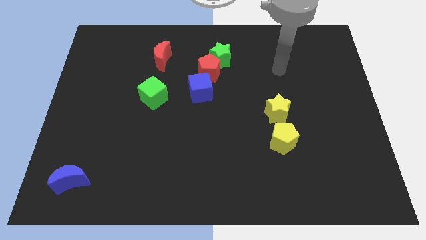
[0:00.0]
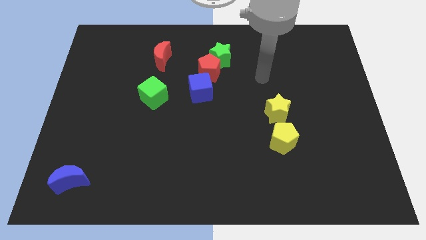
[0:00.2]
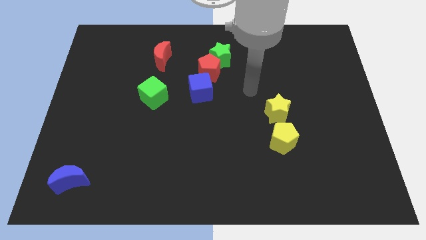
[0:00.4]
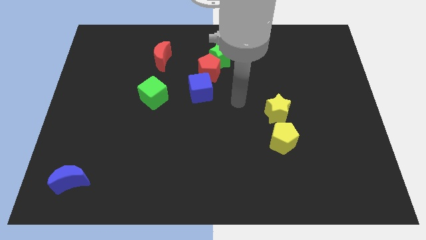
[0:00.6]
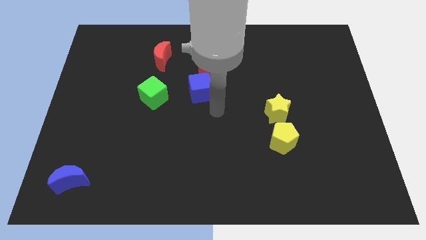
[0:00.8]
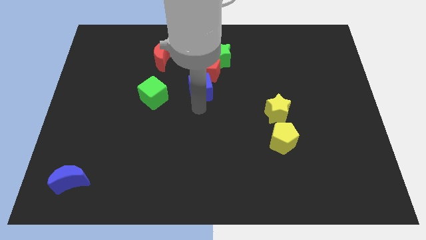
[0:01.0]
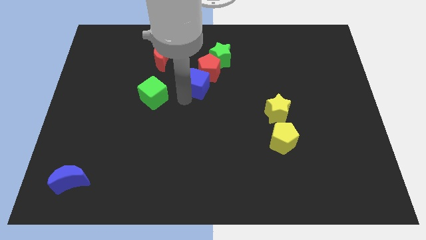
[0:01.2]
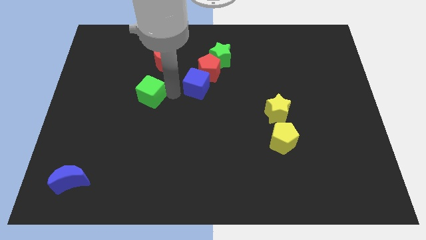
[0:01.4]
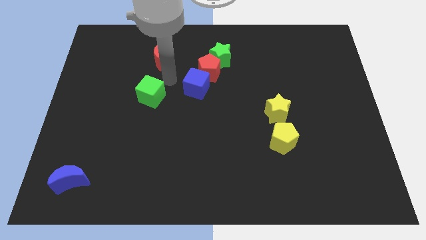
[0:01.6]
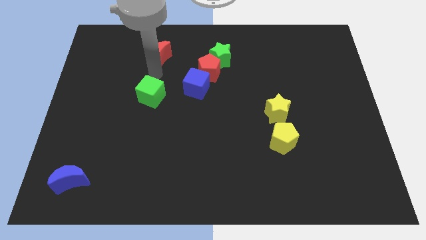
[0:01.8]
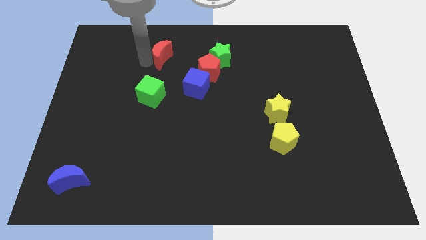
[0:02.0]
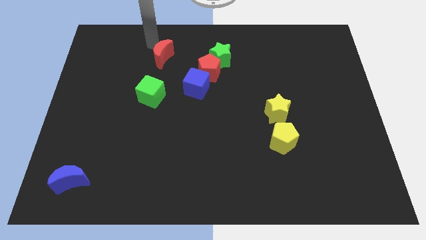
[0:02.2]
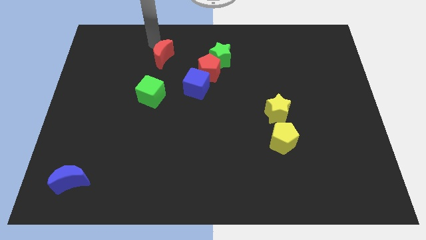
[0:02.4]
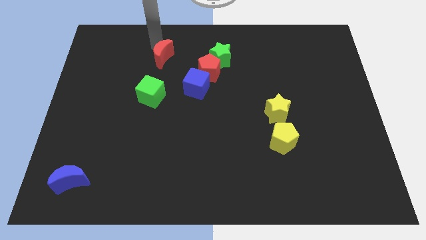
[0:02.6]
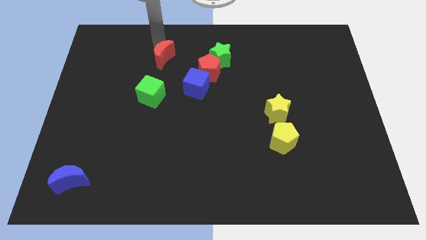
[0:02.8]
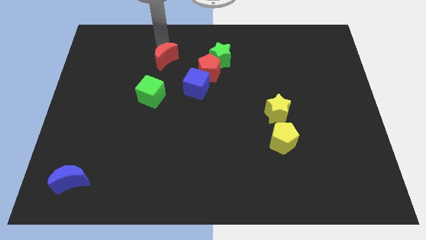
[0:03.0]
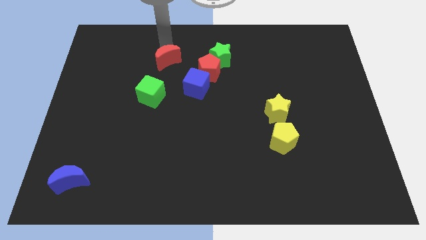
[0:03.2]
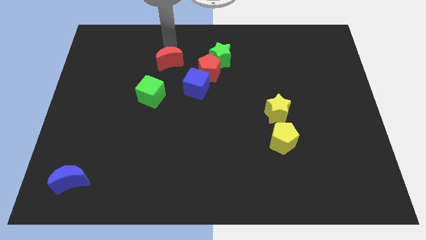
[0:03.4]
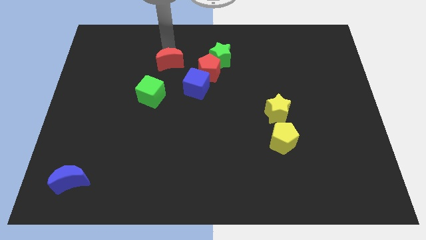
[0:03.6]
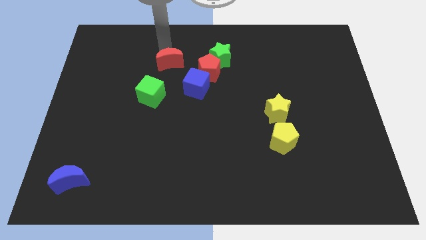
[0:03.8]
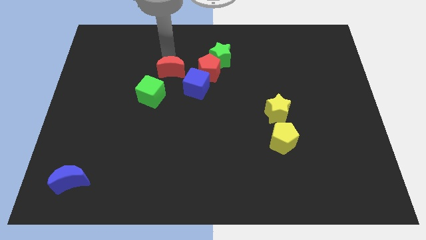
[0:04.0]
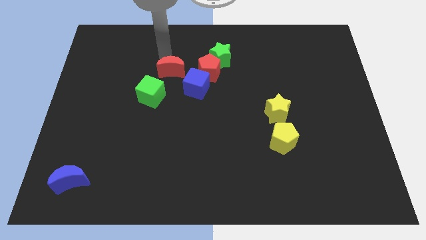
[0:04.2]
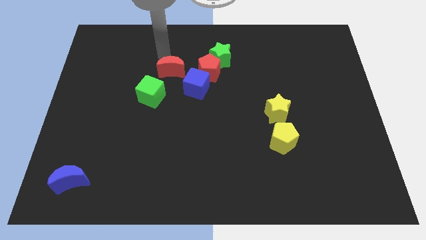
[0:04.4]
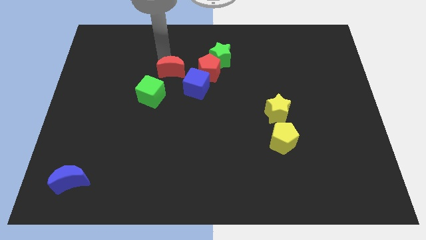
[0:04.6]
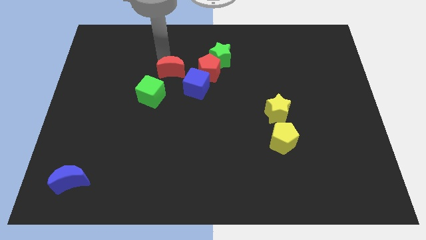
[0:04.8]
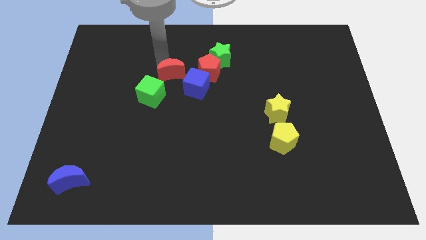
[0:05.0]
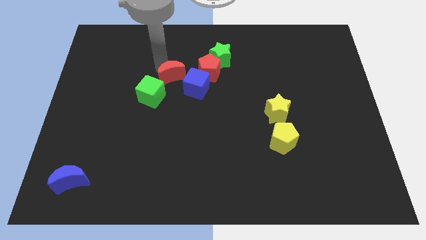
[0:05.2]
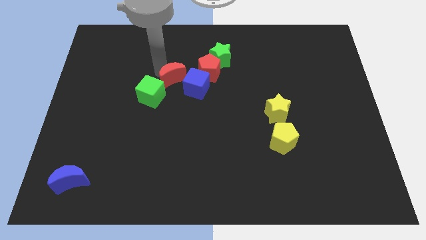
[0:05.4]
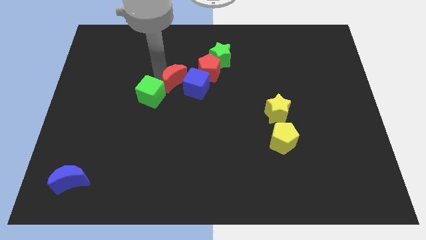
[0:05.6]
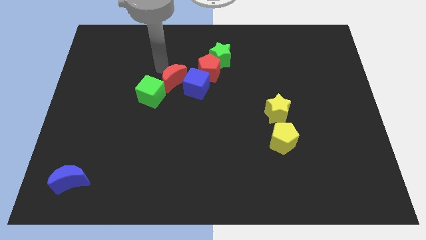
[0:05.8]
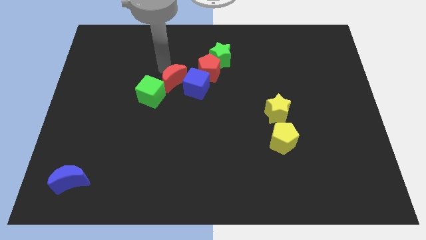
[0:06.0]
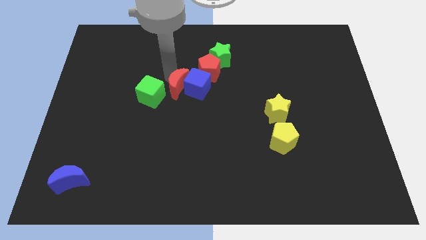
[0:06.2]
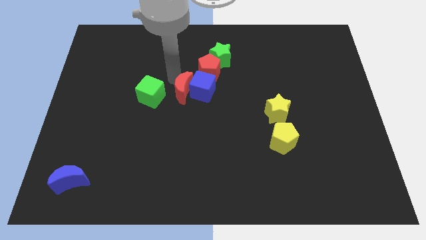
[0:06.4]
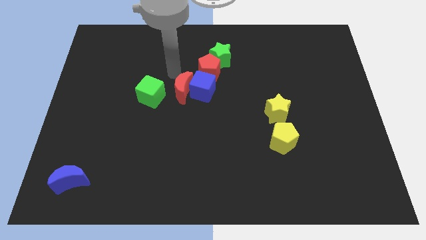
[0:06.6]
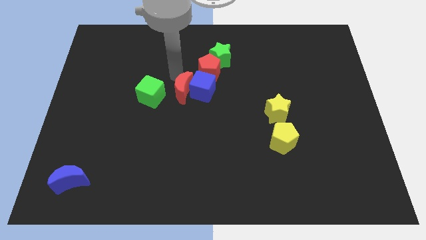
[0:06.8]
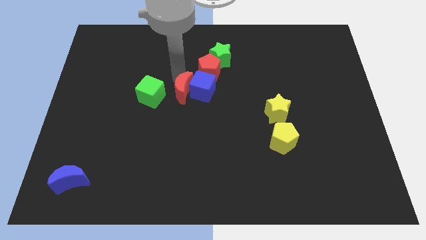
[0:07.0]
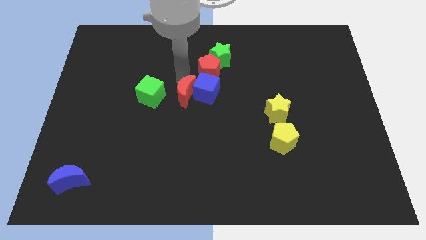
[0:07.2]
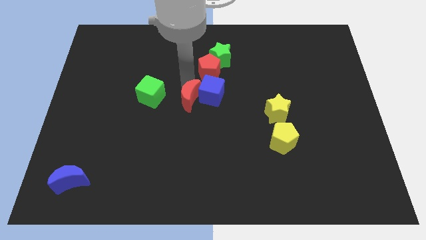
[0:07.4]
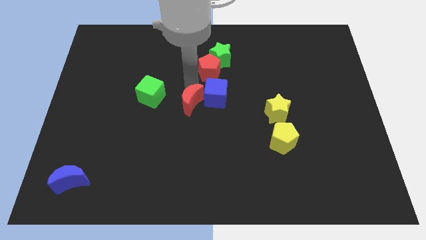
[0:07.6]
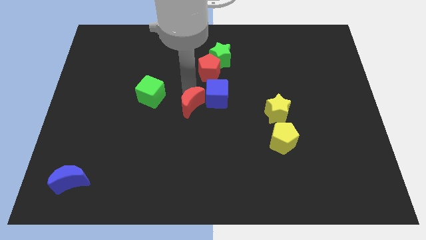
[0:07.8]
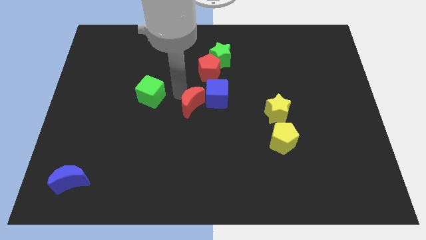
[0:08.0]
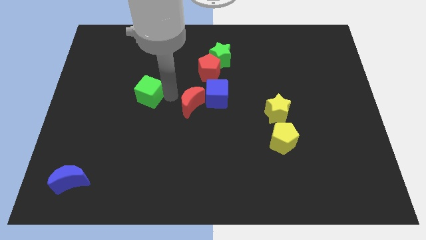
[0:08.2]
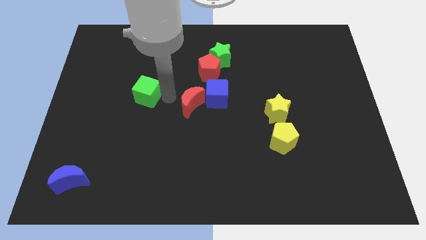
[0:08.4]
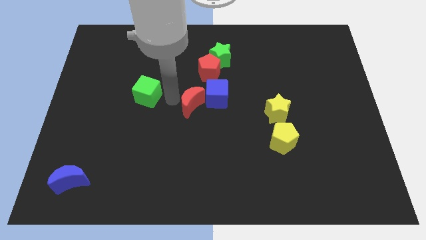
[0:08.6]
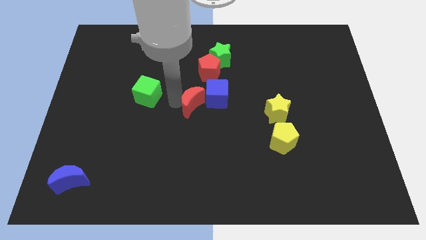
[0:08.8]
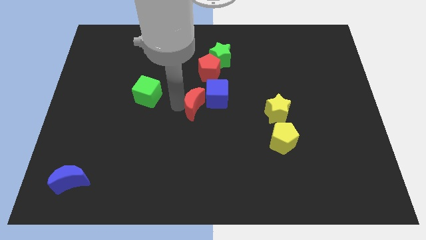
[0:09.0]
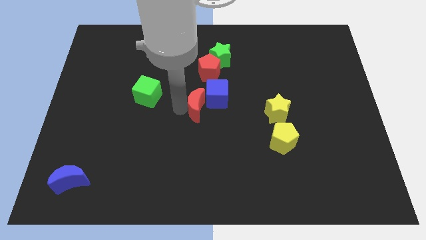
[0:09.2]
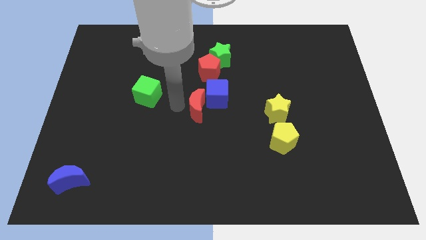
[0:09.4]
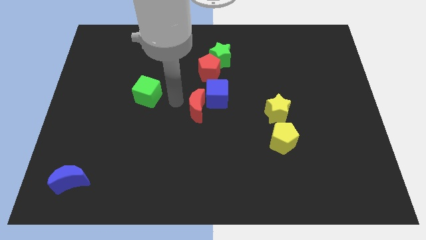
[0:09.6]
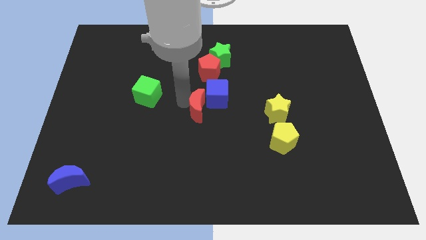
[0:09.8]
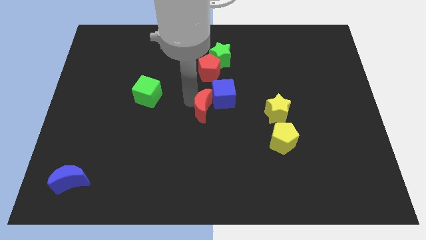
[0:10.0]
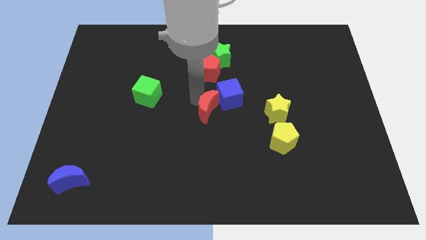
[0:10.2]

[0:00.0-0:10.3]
push the red moon downwards and to the right diagonally

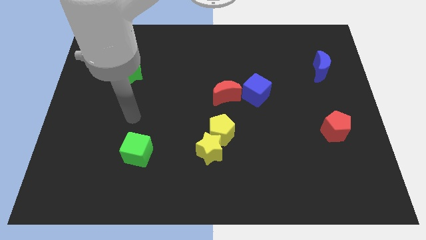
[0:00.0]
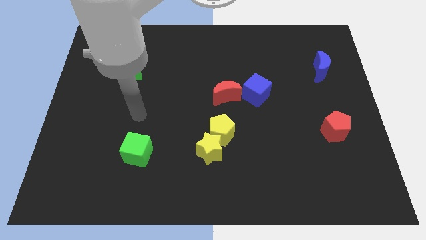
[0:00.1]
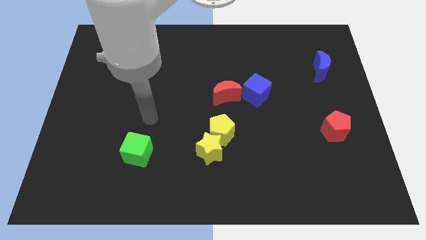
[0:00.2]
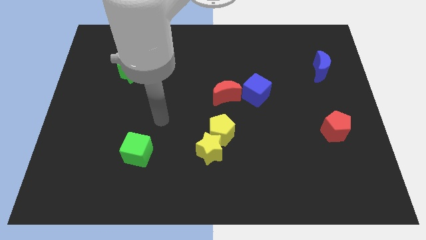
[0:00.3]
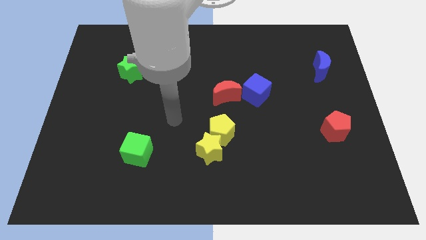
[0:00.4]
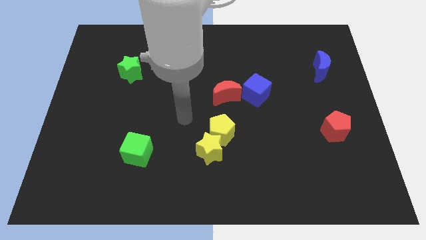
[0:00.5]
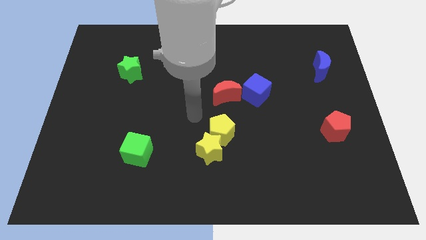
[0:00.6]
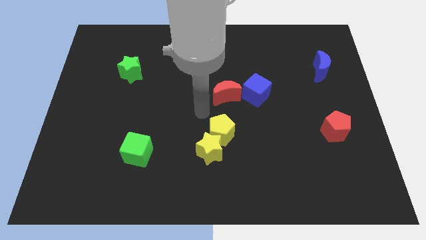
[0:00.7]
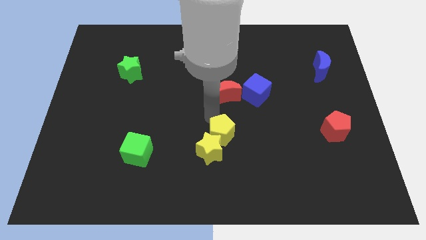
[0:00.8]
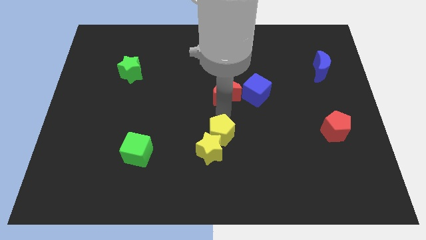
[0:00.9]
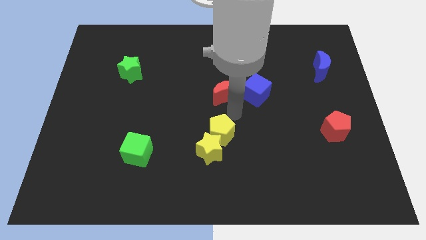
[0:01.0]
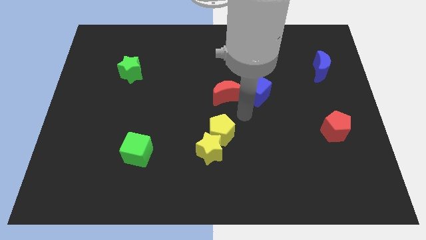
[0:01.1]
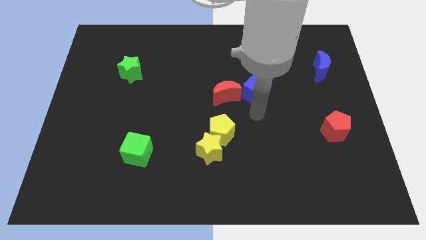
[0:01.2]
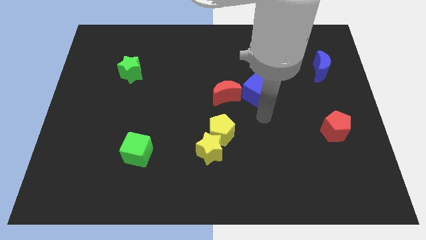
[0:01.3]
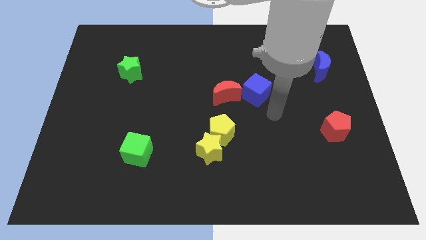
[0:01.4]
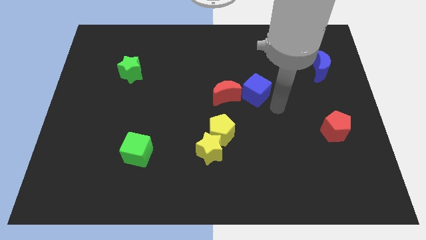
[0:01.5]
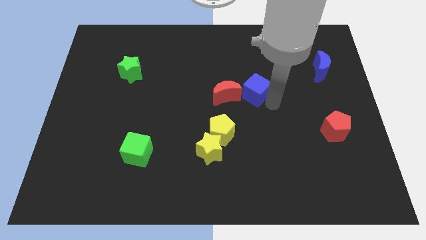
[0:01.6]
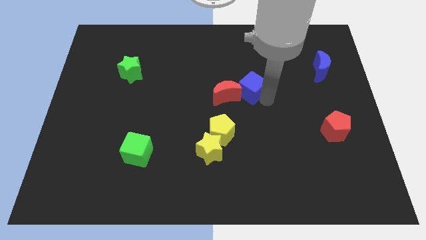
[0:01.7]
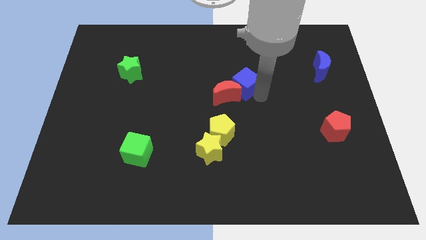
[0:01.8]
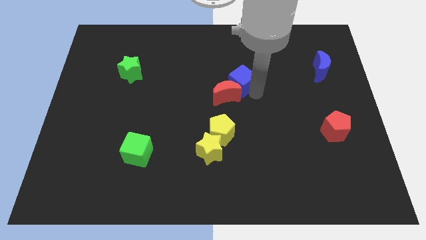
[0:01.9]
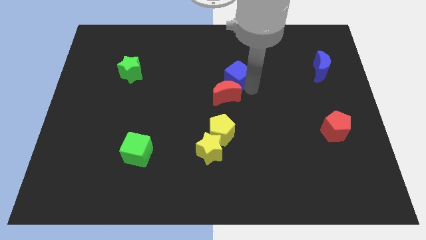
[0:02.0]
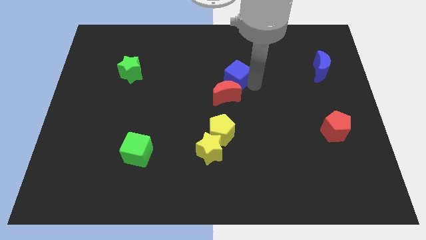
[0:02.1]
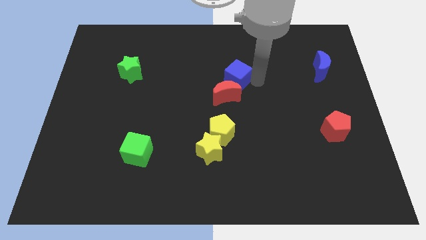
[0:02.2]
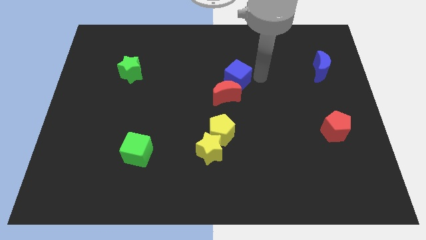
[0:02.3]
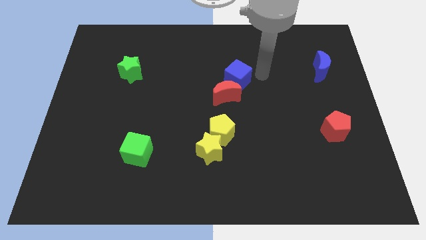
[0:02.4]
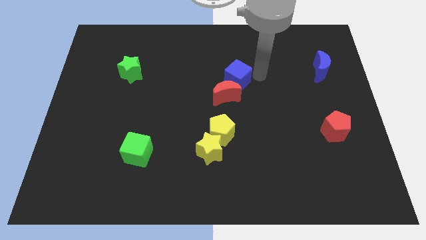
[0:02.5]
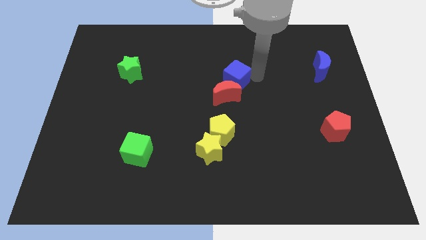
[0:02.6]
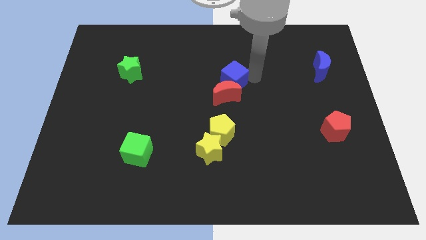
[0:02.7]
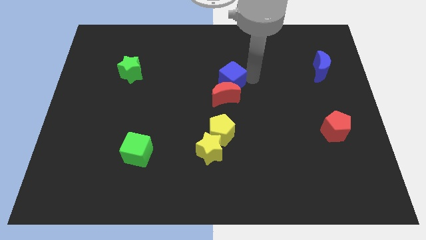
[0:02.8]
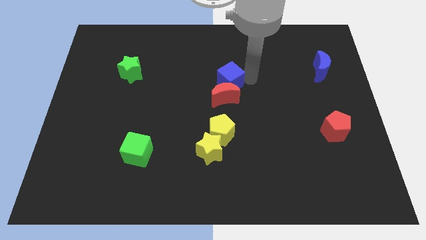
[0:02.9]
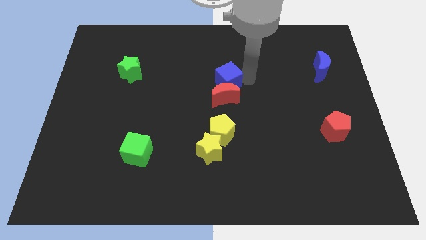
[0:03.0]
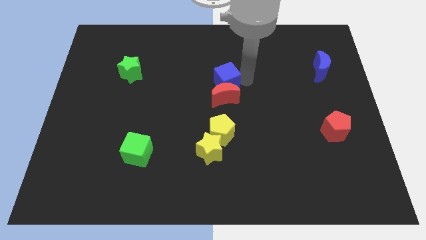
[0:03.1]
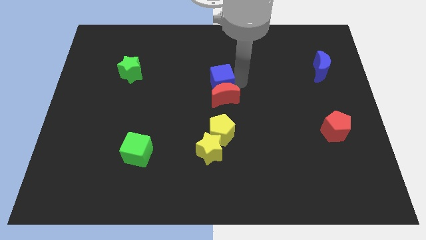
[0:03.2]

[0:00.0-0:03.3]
slide the blue cube to the left slightly
